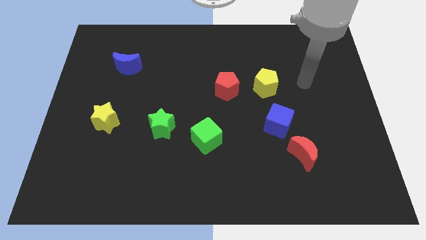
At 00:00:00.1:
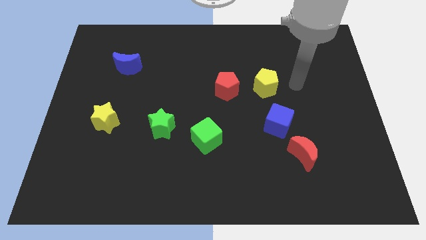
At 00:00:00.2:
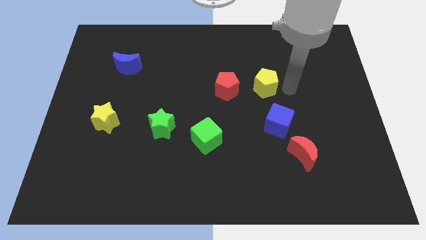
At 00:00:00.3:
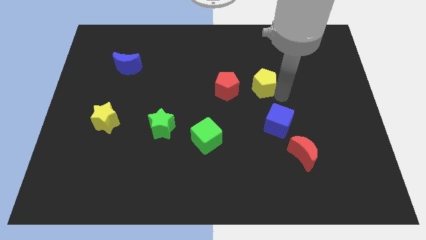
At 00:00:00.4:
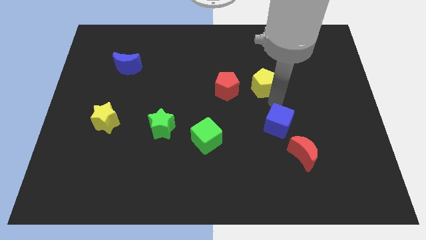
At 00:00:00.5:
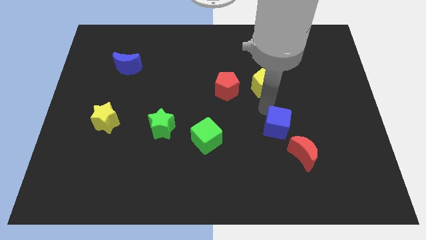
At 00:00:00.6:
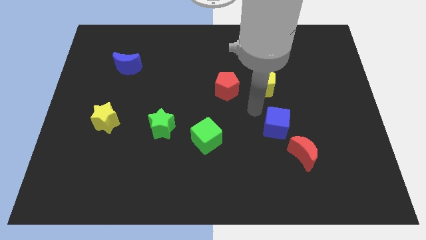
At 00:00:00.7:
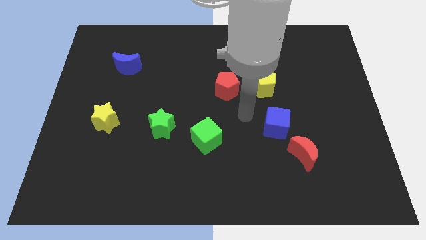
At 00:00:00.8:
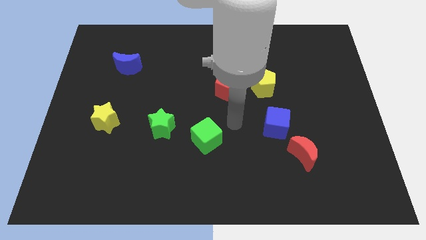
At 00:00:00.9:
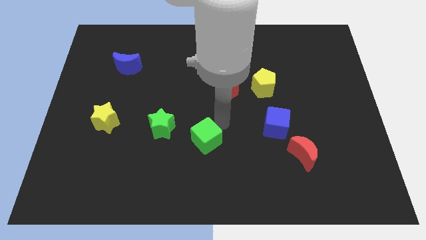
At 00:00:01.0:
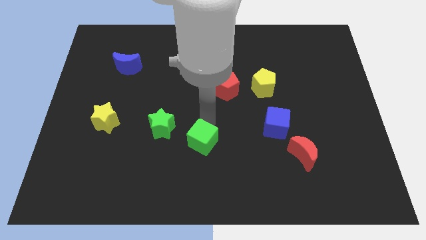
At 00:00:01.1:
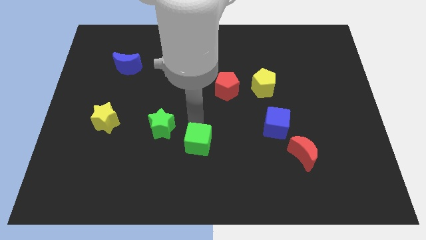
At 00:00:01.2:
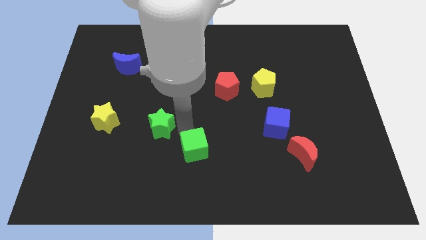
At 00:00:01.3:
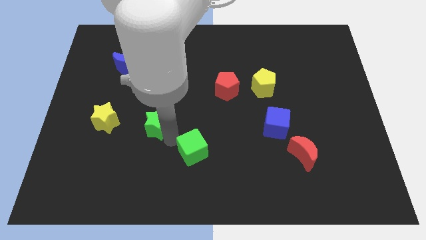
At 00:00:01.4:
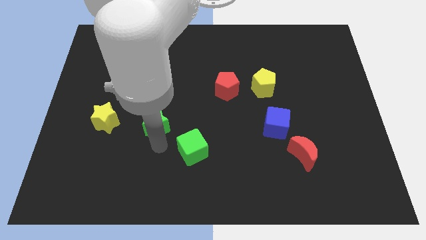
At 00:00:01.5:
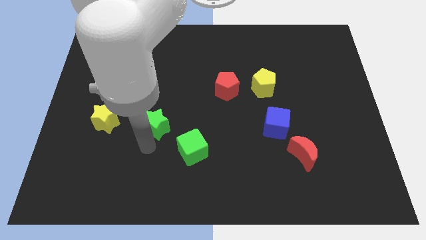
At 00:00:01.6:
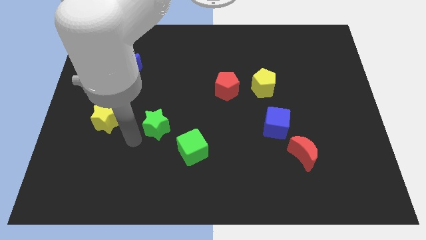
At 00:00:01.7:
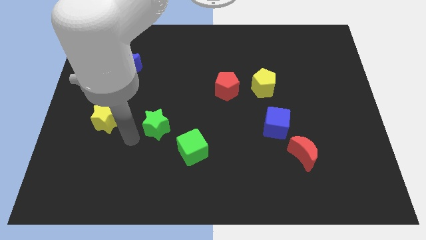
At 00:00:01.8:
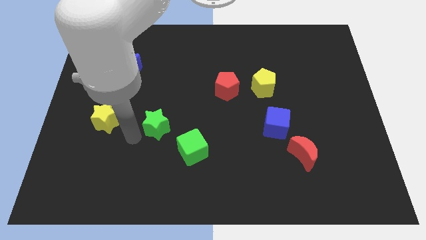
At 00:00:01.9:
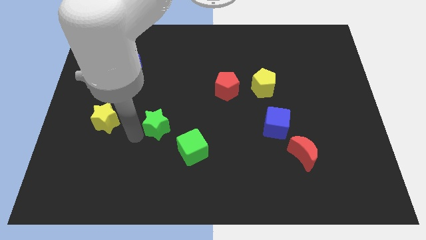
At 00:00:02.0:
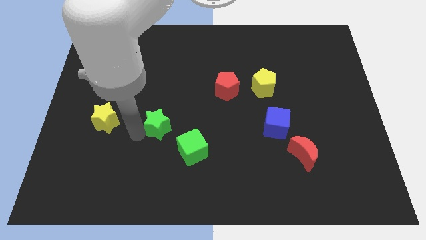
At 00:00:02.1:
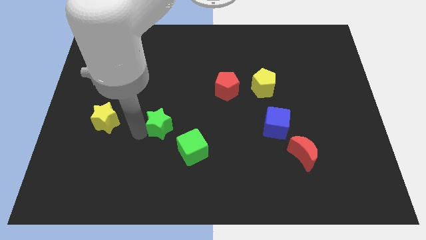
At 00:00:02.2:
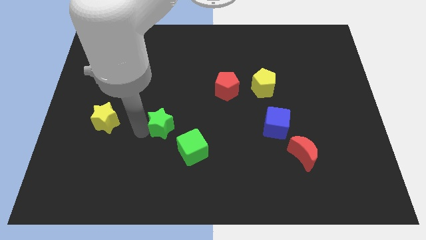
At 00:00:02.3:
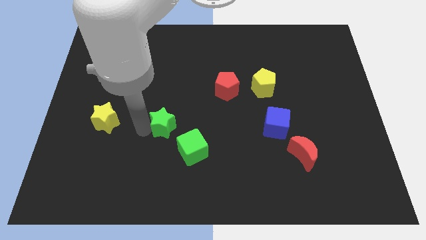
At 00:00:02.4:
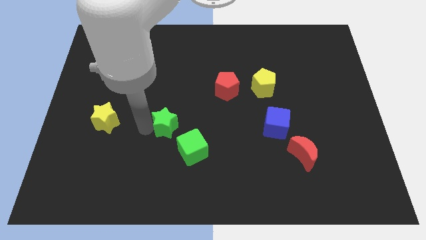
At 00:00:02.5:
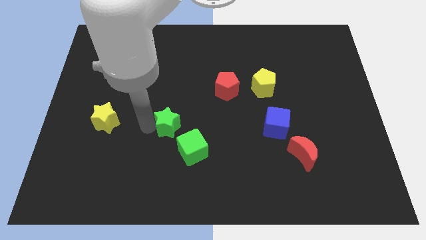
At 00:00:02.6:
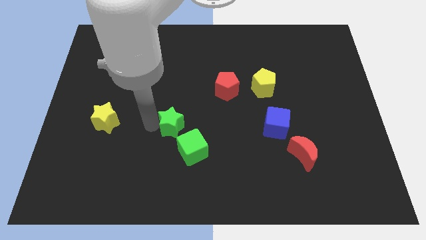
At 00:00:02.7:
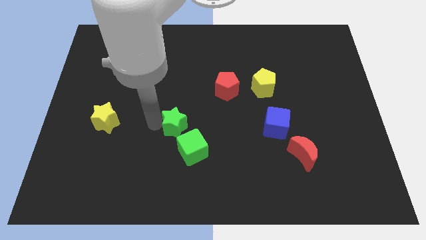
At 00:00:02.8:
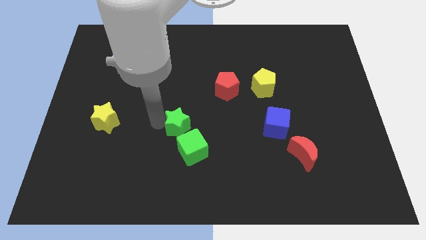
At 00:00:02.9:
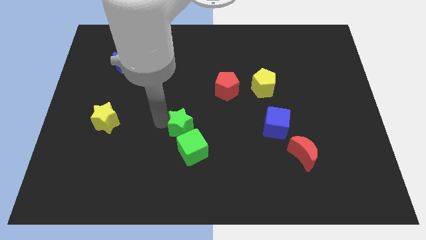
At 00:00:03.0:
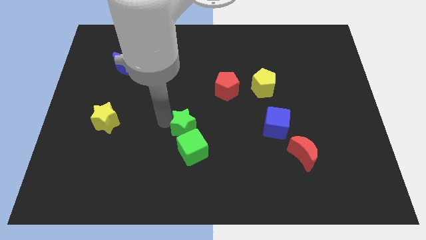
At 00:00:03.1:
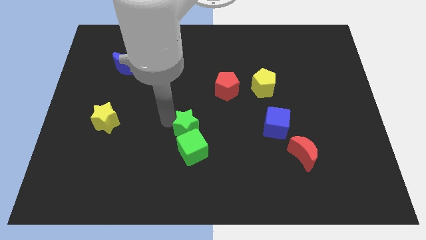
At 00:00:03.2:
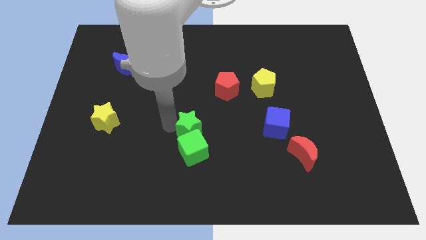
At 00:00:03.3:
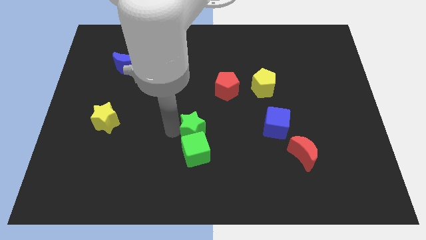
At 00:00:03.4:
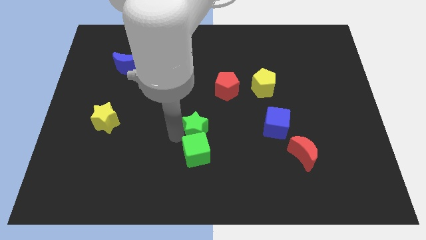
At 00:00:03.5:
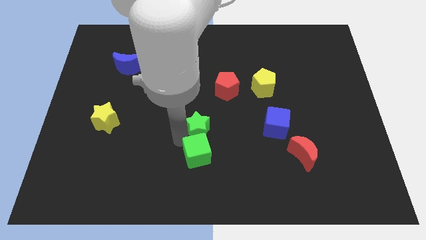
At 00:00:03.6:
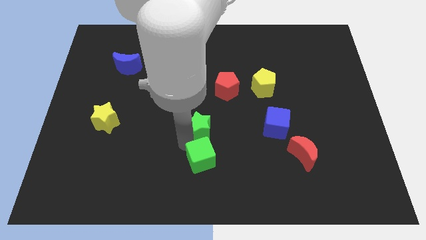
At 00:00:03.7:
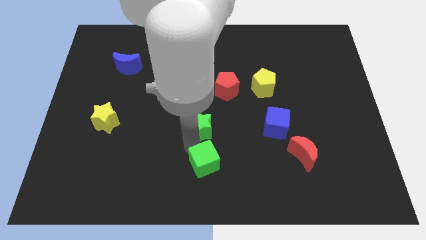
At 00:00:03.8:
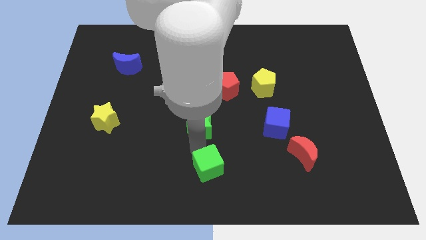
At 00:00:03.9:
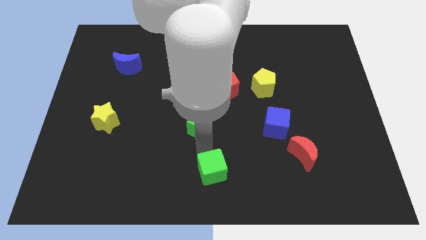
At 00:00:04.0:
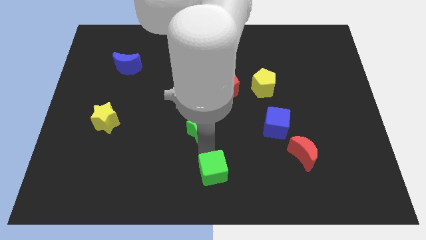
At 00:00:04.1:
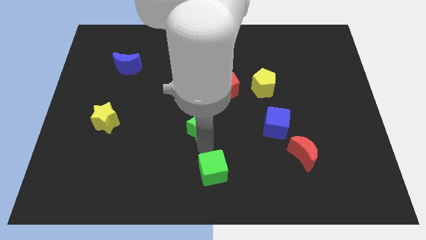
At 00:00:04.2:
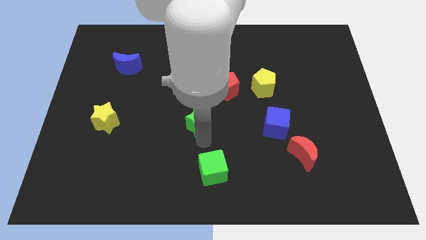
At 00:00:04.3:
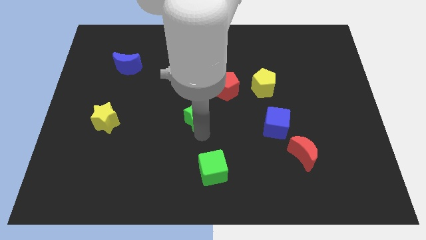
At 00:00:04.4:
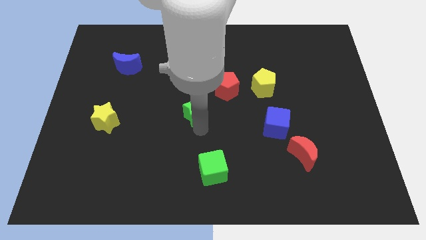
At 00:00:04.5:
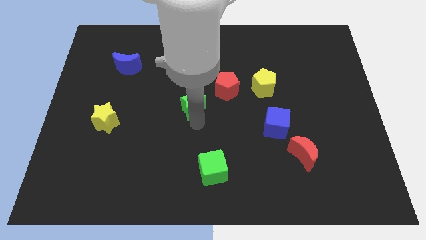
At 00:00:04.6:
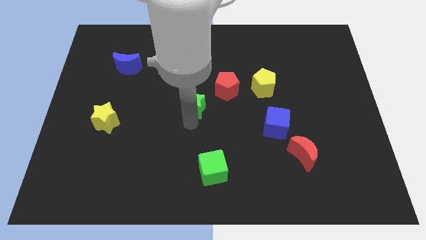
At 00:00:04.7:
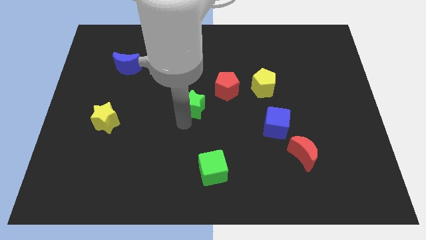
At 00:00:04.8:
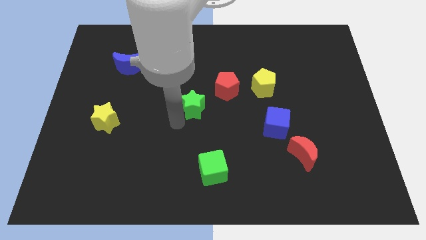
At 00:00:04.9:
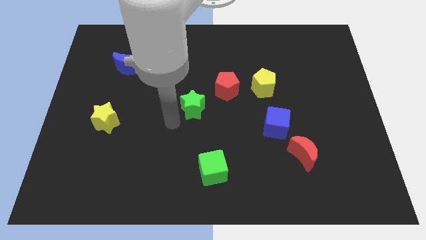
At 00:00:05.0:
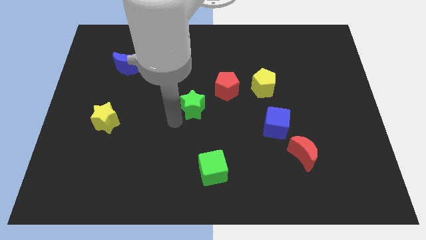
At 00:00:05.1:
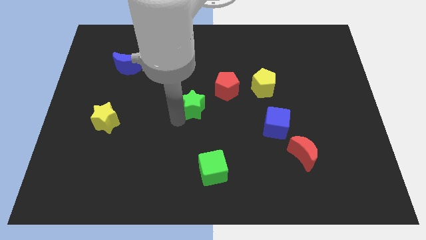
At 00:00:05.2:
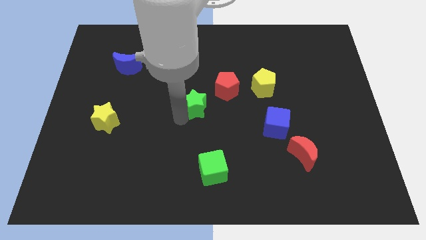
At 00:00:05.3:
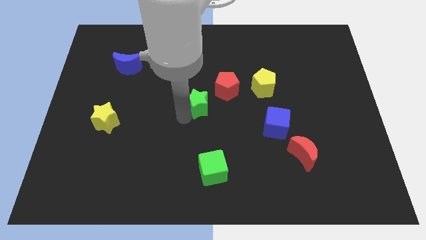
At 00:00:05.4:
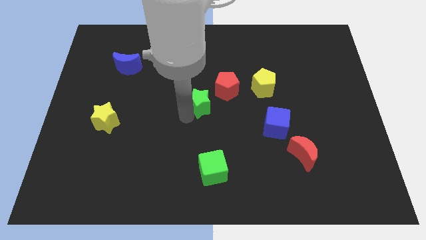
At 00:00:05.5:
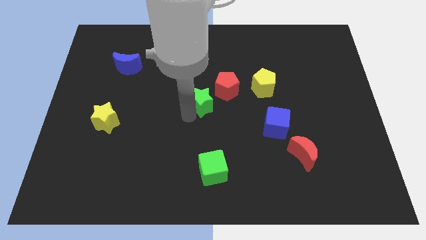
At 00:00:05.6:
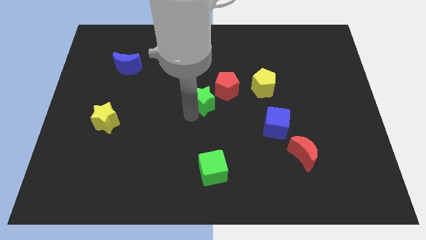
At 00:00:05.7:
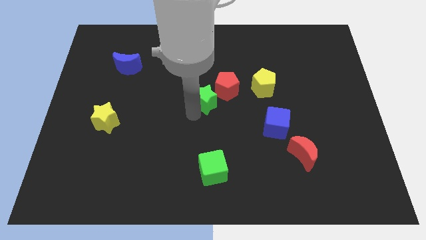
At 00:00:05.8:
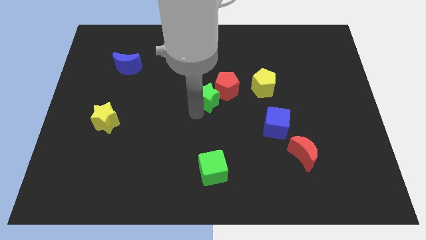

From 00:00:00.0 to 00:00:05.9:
move the green star close to the red pentagon

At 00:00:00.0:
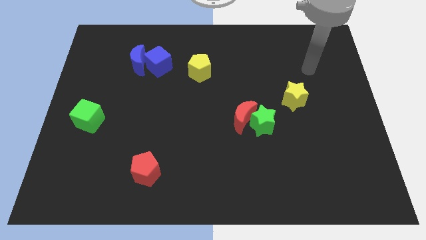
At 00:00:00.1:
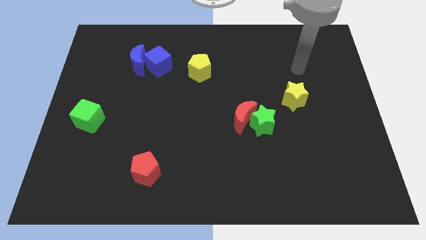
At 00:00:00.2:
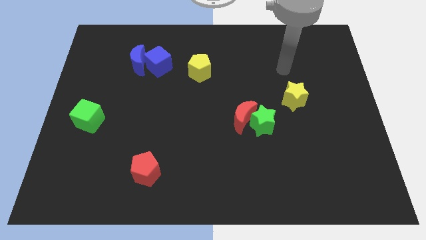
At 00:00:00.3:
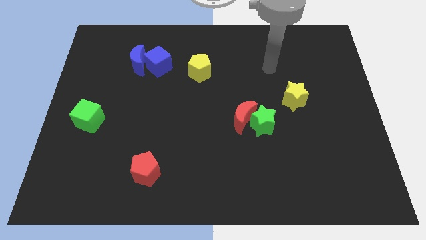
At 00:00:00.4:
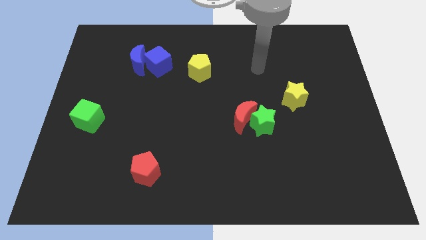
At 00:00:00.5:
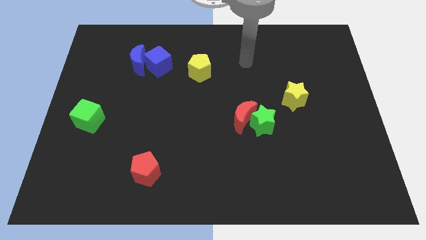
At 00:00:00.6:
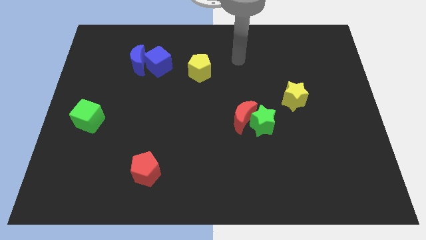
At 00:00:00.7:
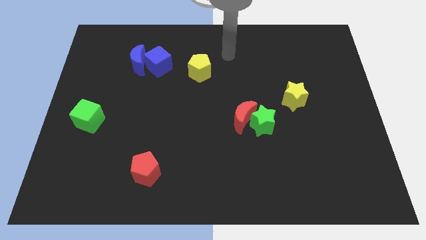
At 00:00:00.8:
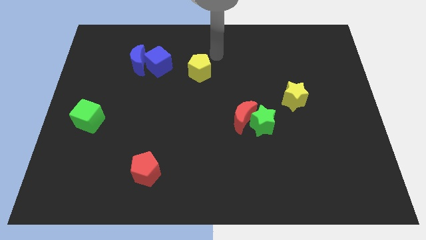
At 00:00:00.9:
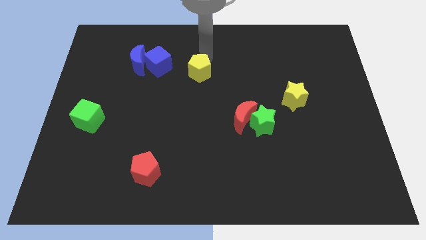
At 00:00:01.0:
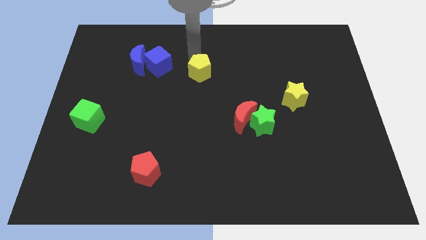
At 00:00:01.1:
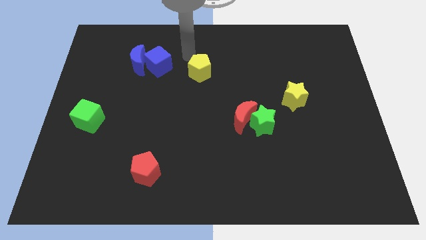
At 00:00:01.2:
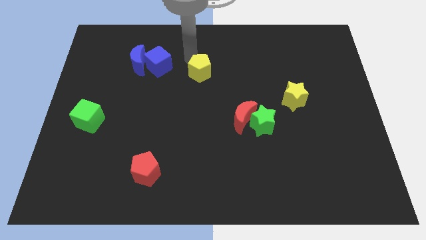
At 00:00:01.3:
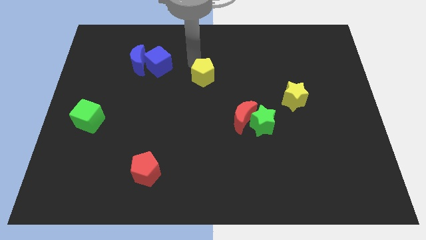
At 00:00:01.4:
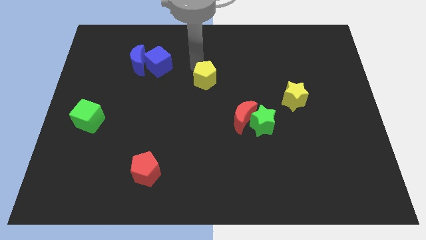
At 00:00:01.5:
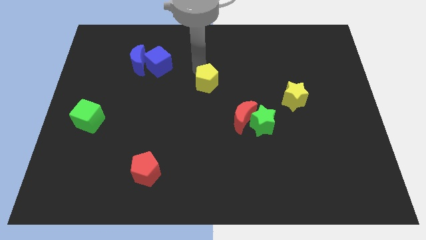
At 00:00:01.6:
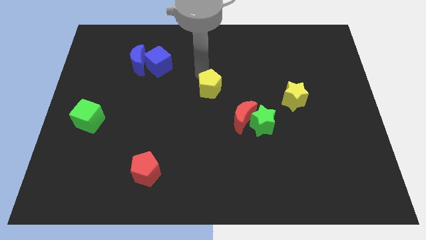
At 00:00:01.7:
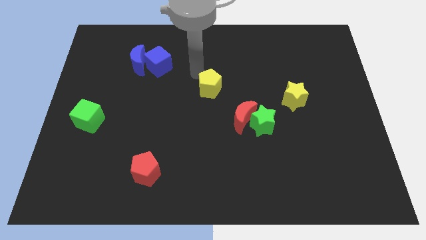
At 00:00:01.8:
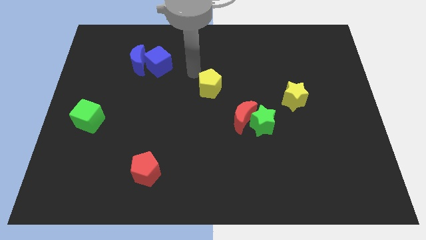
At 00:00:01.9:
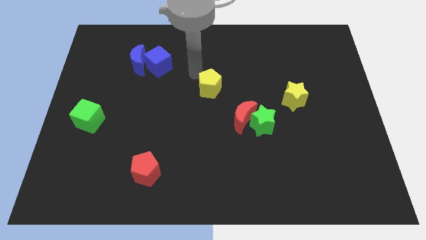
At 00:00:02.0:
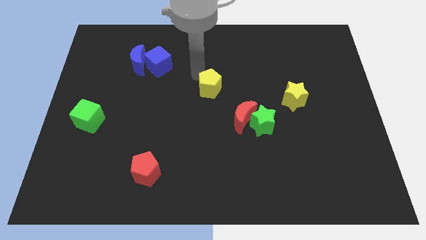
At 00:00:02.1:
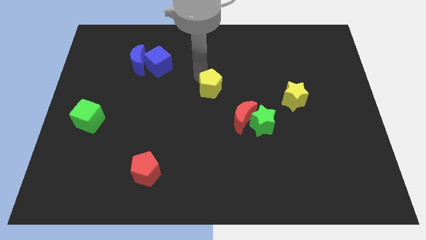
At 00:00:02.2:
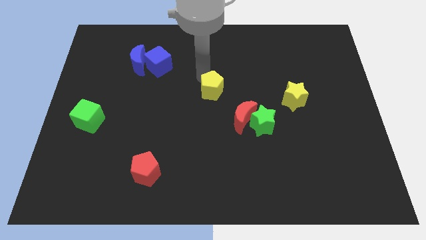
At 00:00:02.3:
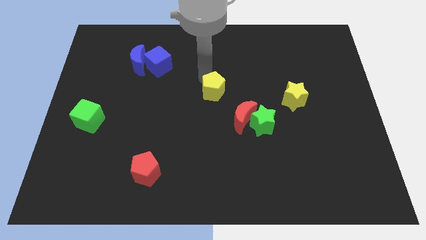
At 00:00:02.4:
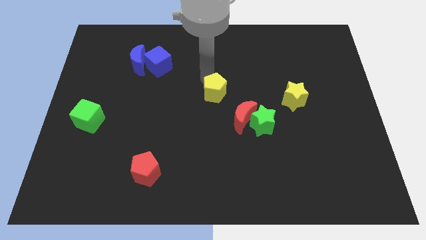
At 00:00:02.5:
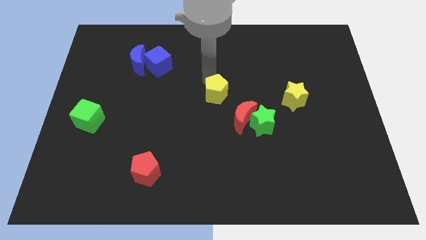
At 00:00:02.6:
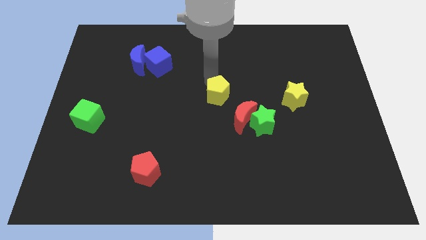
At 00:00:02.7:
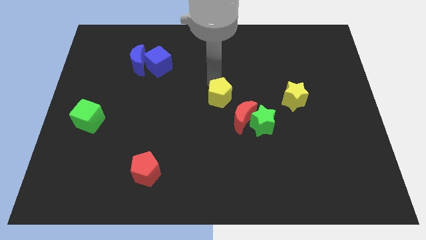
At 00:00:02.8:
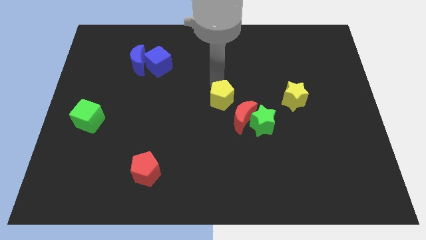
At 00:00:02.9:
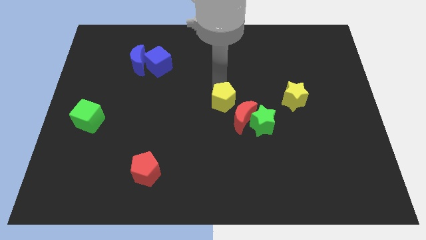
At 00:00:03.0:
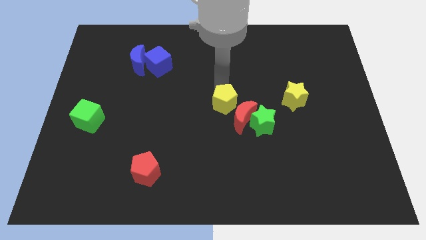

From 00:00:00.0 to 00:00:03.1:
put the yellow pentagon to the red moon
